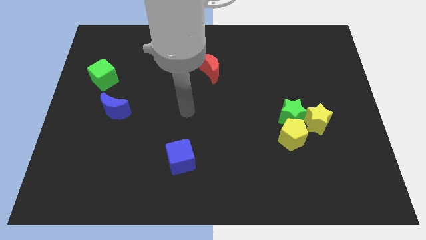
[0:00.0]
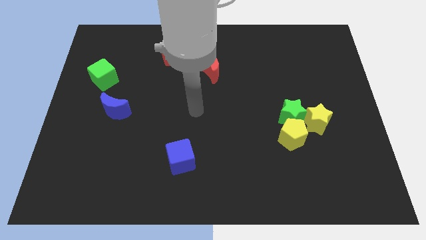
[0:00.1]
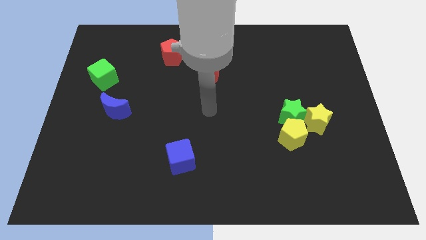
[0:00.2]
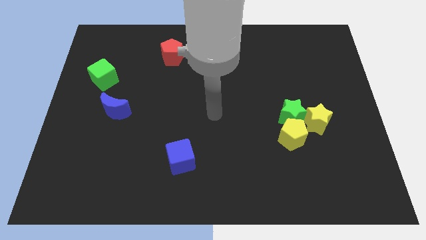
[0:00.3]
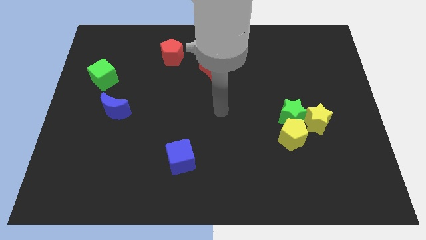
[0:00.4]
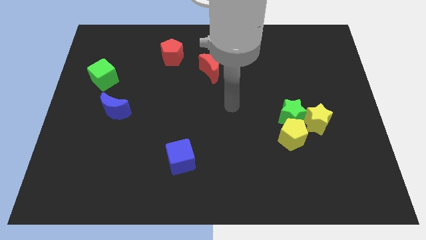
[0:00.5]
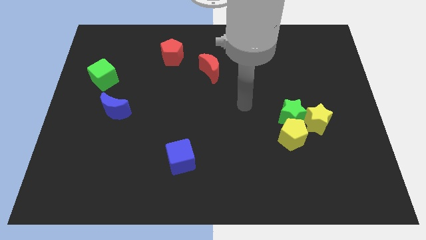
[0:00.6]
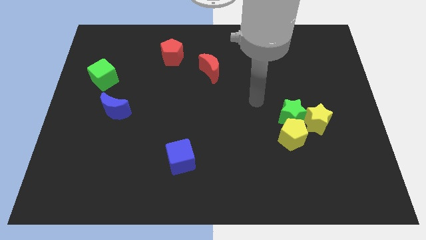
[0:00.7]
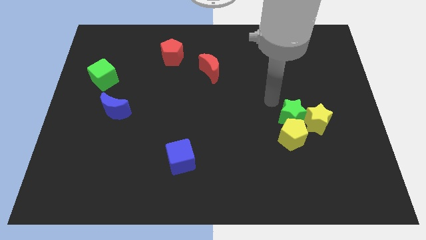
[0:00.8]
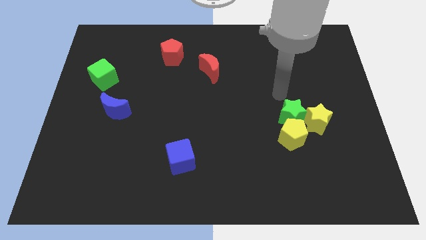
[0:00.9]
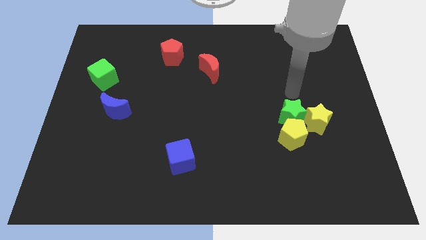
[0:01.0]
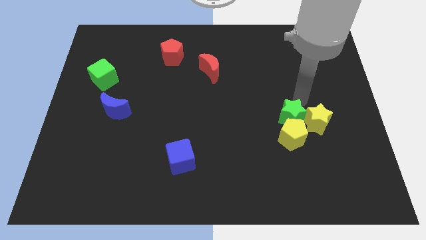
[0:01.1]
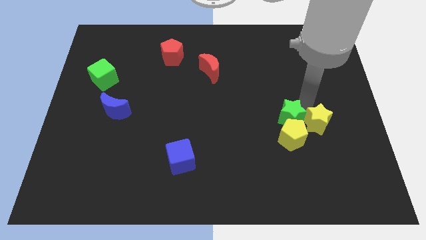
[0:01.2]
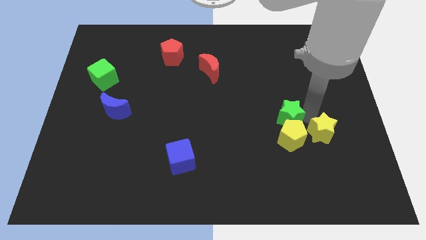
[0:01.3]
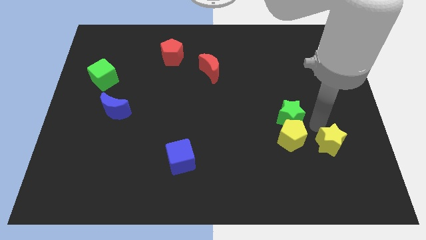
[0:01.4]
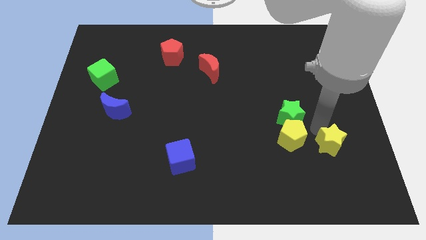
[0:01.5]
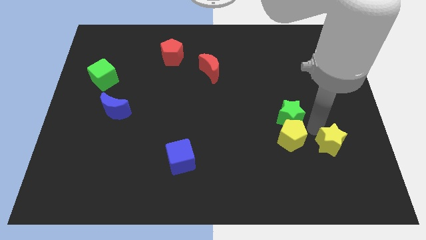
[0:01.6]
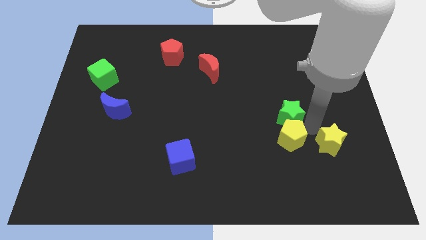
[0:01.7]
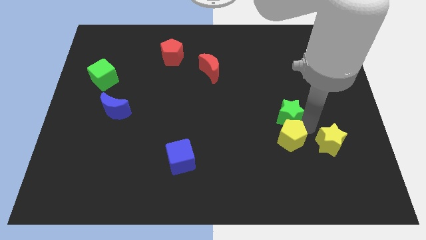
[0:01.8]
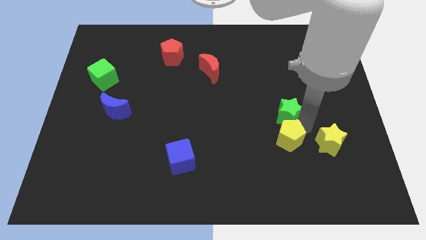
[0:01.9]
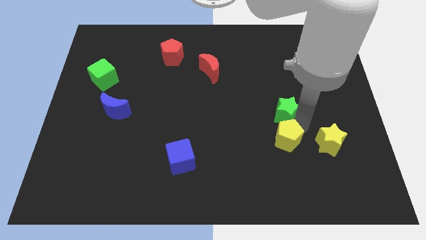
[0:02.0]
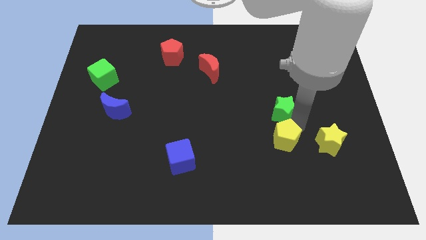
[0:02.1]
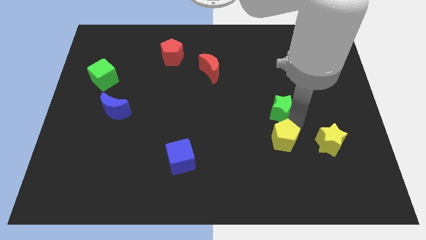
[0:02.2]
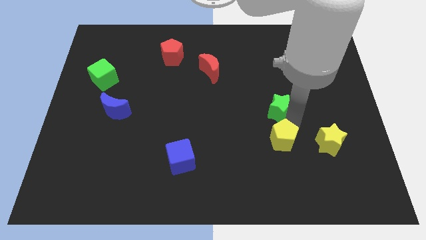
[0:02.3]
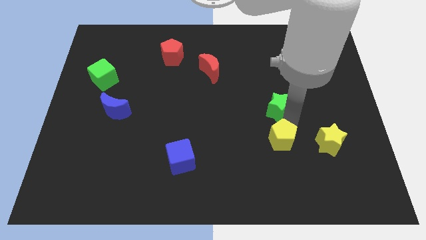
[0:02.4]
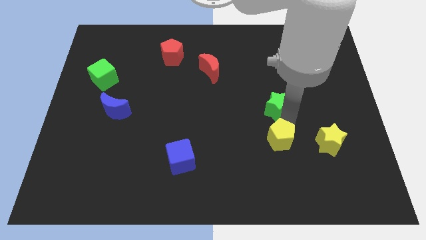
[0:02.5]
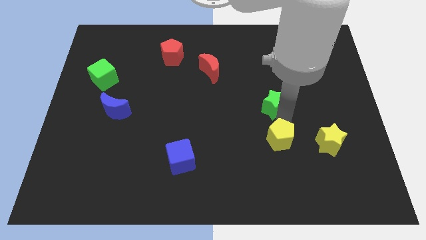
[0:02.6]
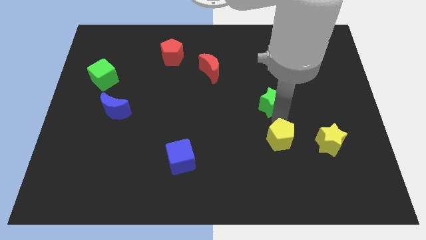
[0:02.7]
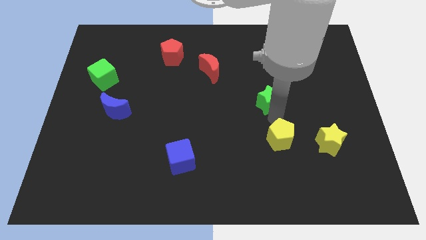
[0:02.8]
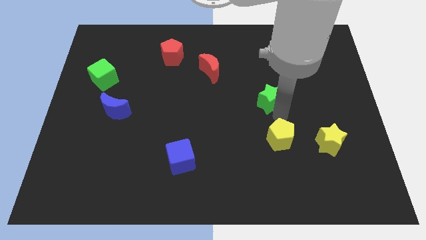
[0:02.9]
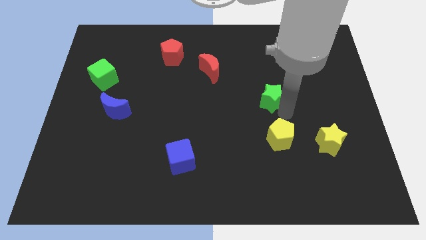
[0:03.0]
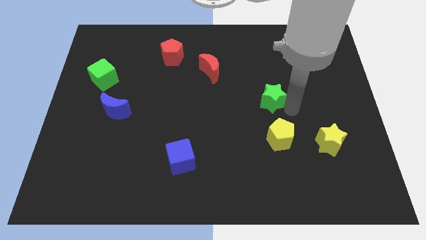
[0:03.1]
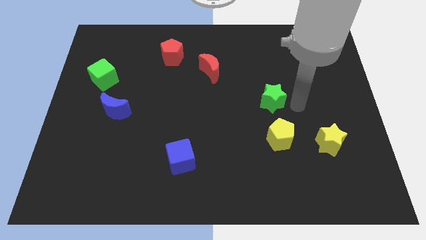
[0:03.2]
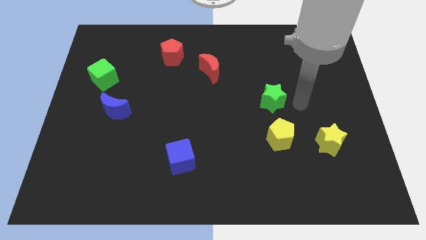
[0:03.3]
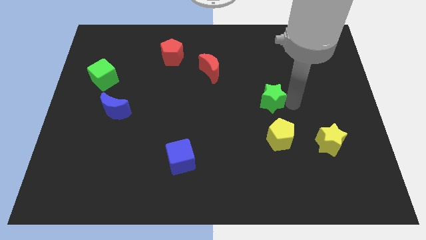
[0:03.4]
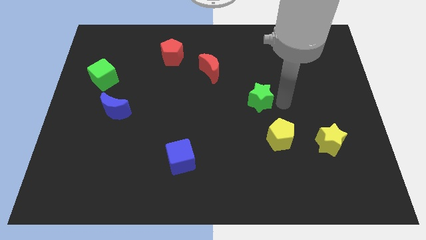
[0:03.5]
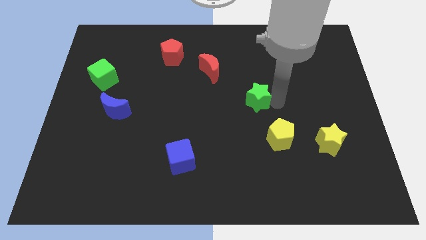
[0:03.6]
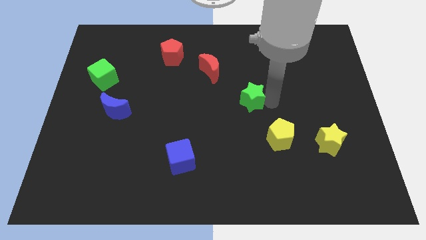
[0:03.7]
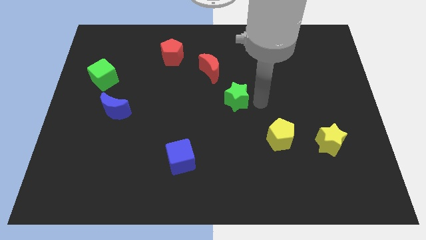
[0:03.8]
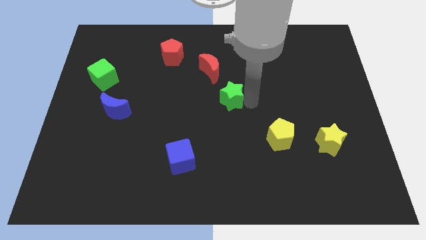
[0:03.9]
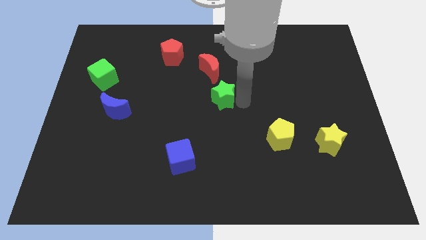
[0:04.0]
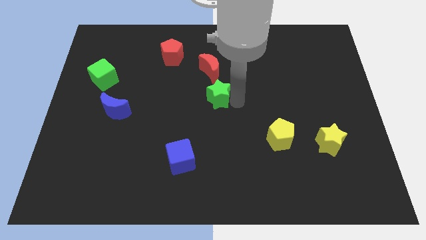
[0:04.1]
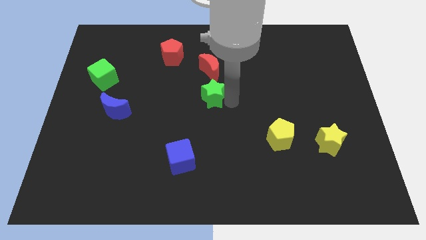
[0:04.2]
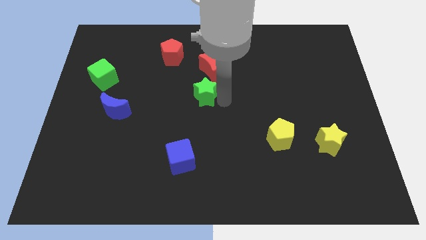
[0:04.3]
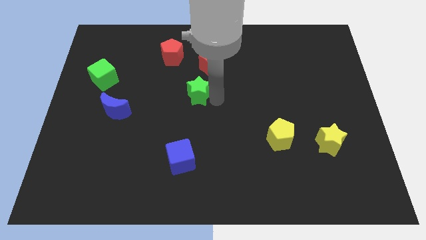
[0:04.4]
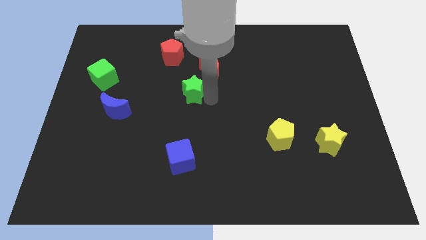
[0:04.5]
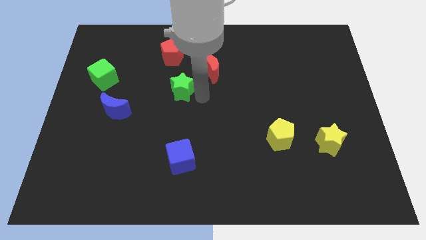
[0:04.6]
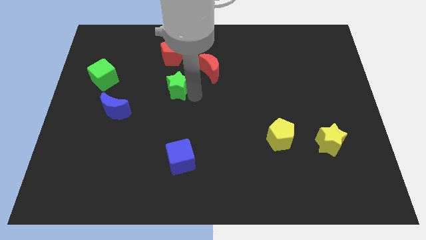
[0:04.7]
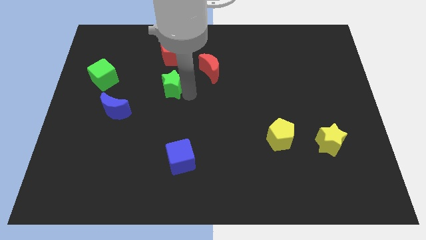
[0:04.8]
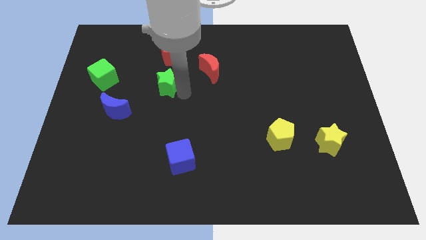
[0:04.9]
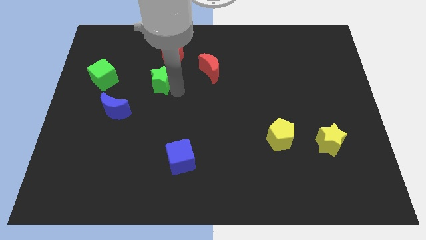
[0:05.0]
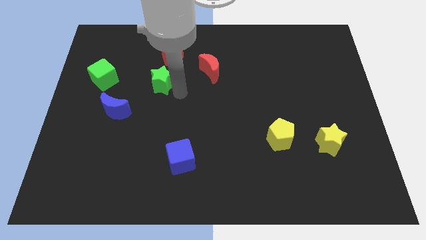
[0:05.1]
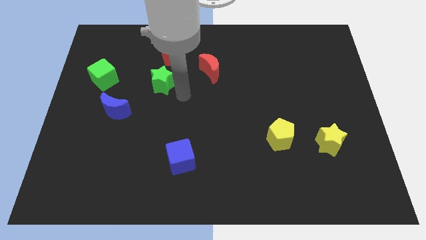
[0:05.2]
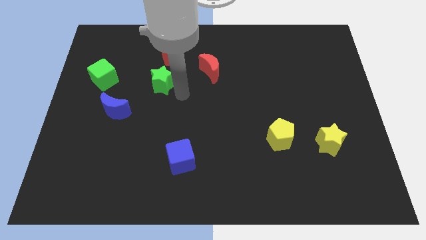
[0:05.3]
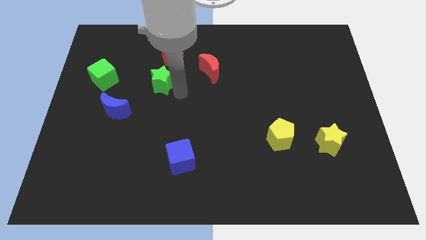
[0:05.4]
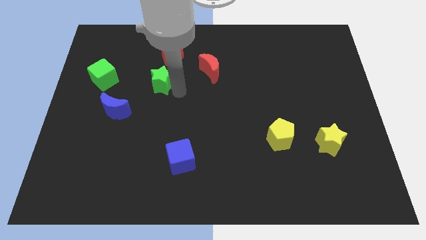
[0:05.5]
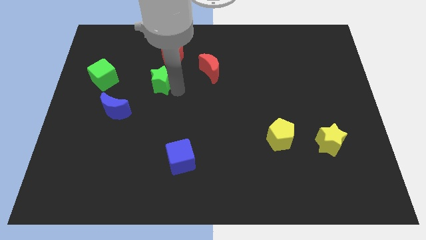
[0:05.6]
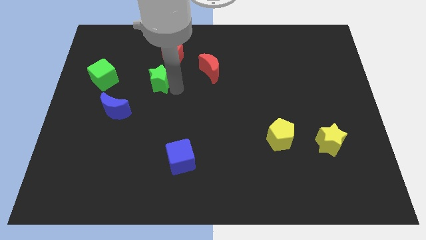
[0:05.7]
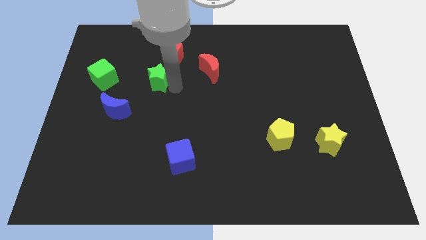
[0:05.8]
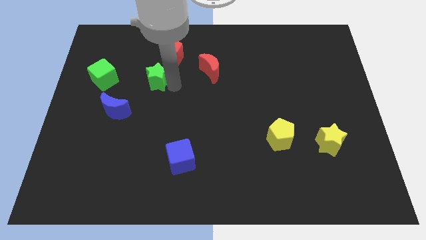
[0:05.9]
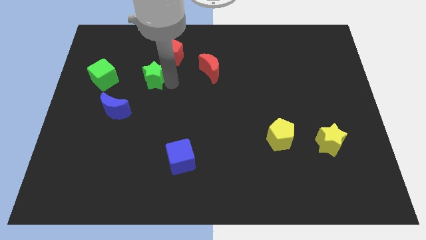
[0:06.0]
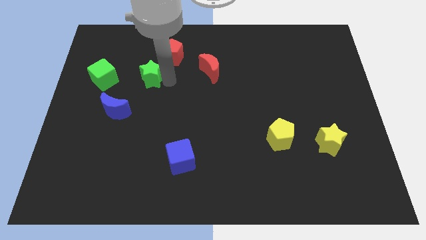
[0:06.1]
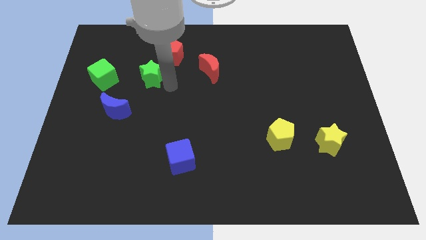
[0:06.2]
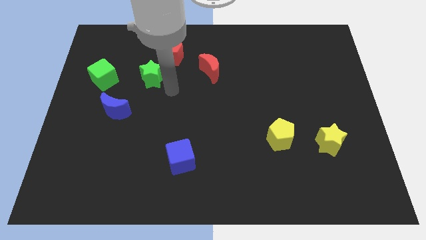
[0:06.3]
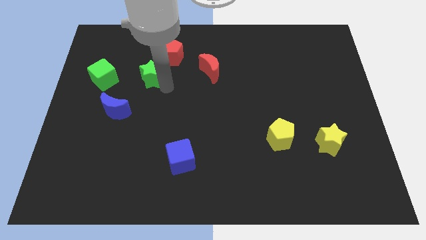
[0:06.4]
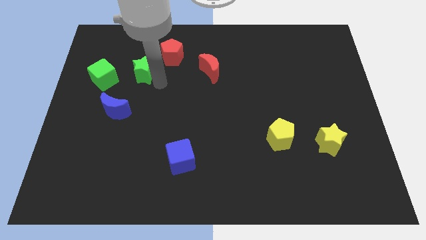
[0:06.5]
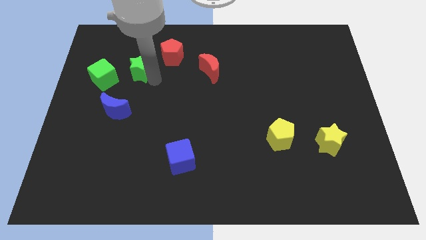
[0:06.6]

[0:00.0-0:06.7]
push the green star to the top right side of the green cube
